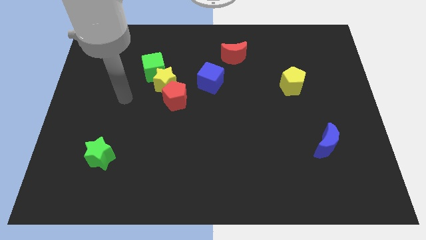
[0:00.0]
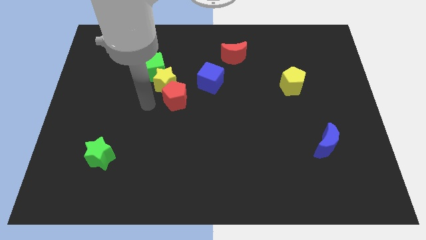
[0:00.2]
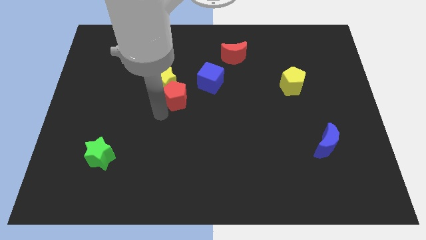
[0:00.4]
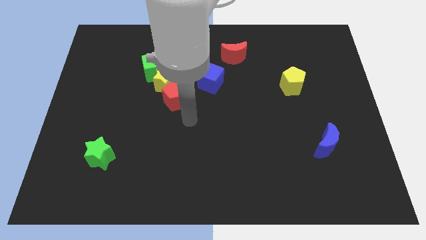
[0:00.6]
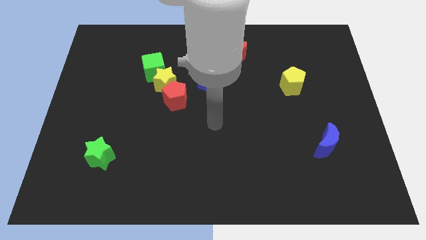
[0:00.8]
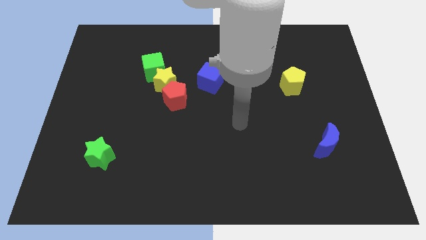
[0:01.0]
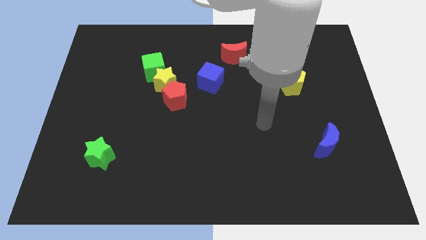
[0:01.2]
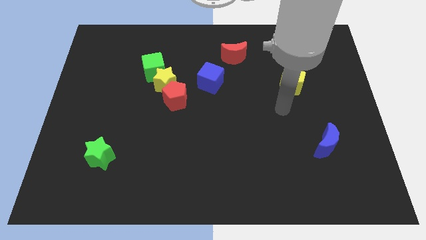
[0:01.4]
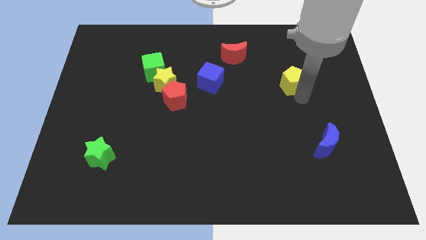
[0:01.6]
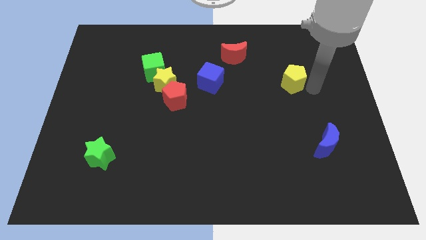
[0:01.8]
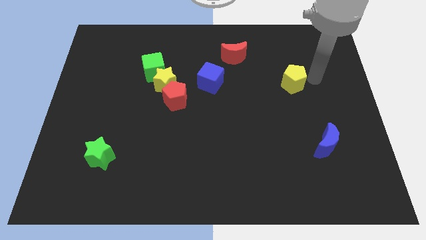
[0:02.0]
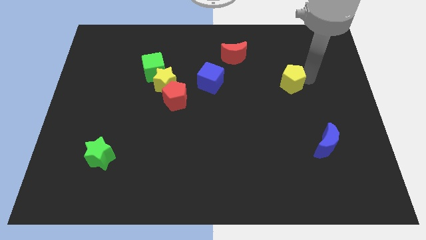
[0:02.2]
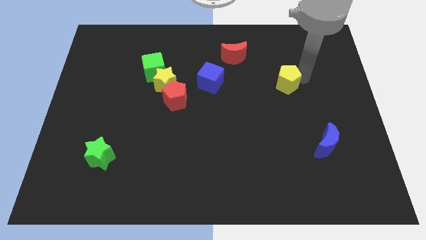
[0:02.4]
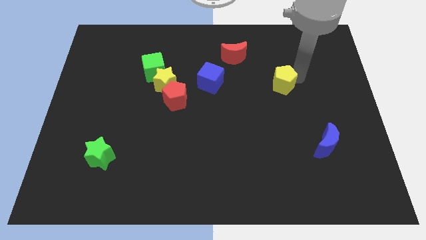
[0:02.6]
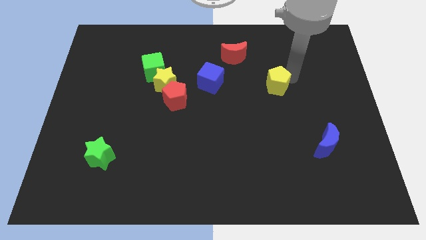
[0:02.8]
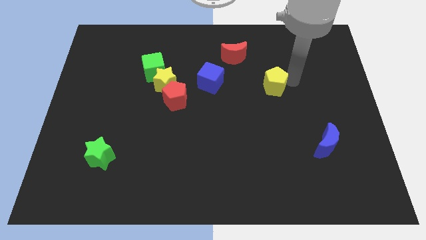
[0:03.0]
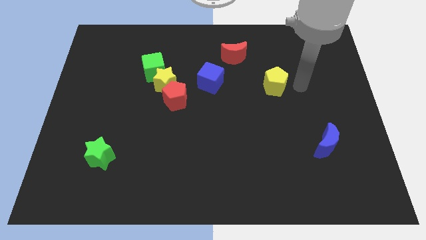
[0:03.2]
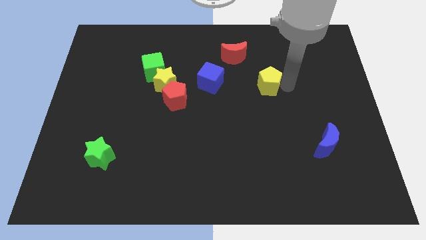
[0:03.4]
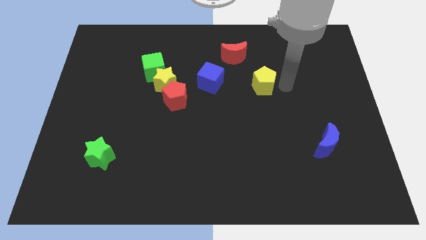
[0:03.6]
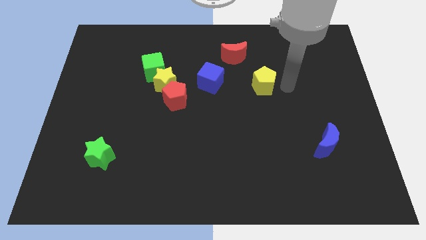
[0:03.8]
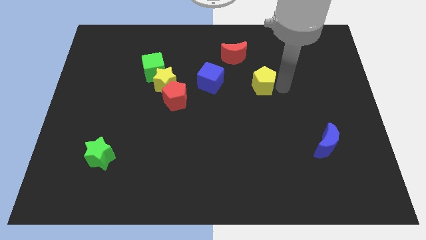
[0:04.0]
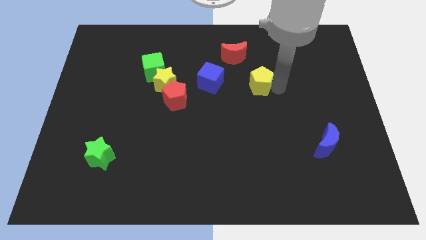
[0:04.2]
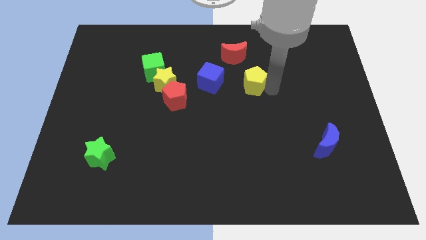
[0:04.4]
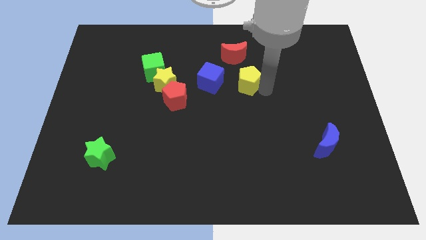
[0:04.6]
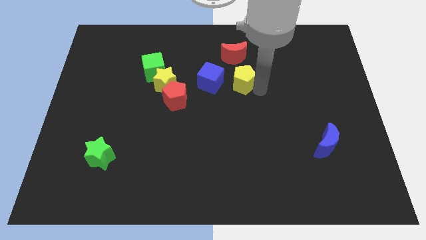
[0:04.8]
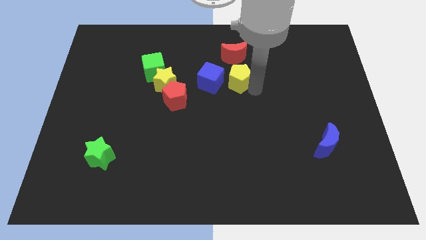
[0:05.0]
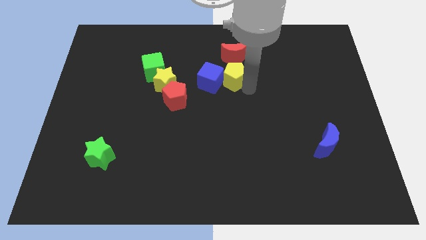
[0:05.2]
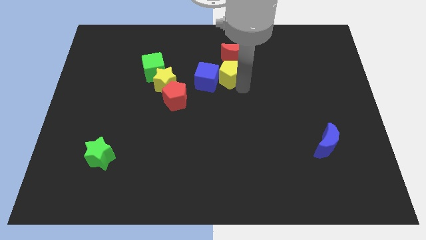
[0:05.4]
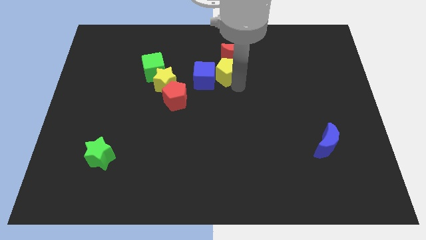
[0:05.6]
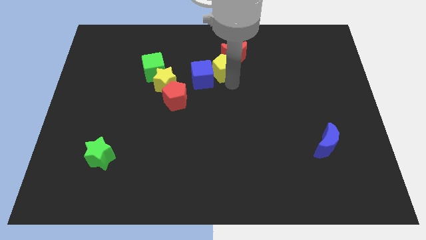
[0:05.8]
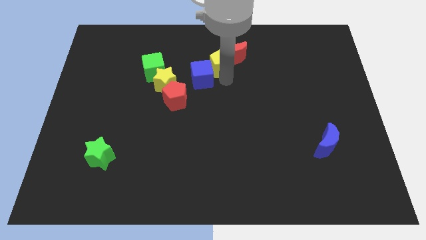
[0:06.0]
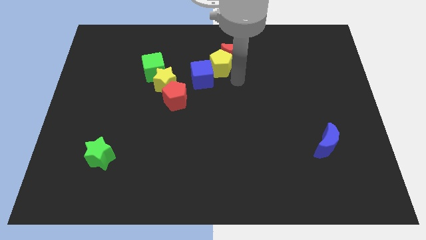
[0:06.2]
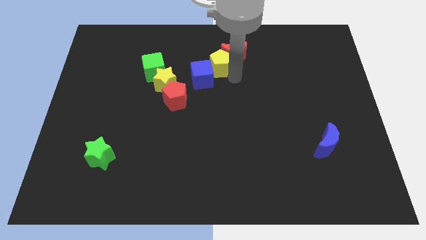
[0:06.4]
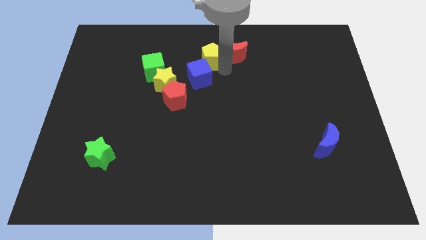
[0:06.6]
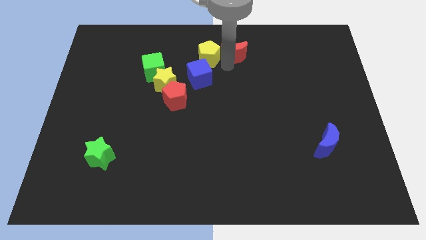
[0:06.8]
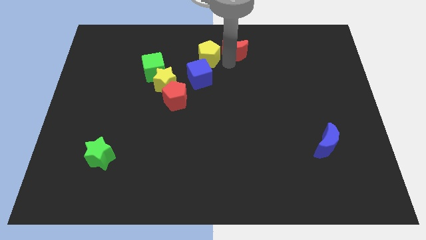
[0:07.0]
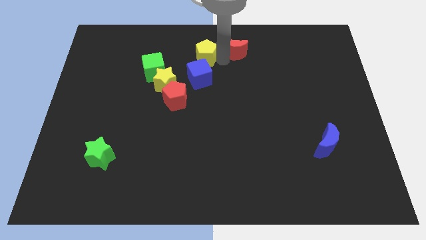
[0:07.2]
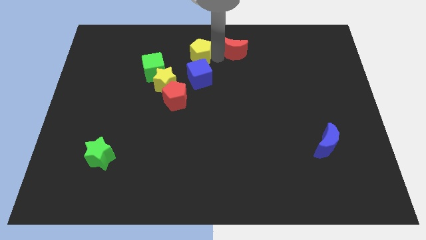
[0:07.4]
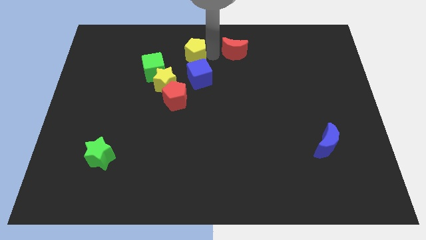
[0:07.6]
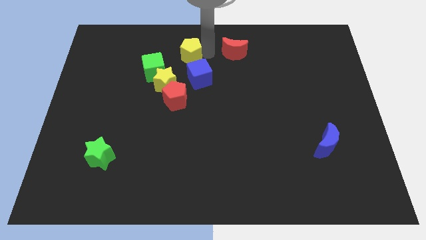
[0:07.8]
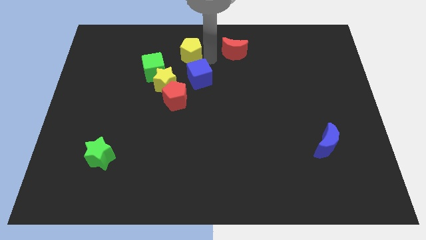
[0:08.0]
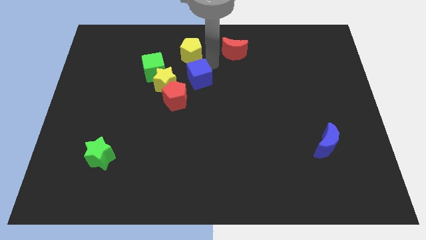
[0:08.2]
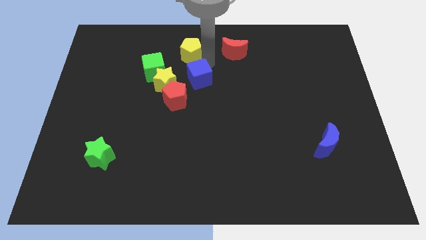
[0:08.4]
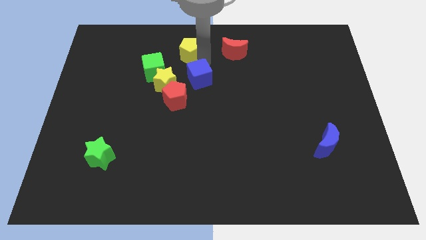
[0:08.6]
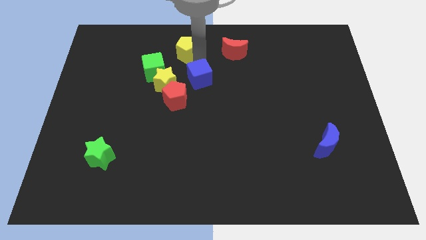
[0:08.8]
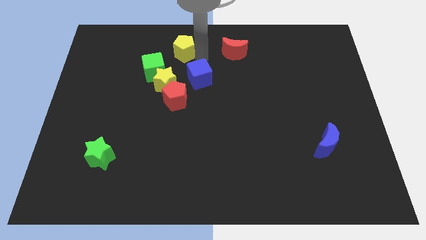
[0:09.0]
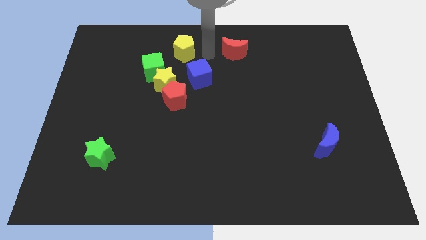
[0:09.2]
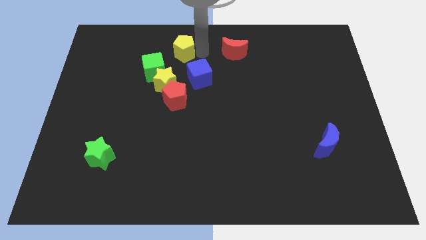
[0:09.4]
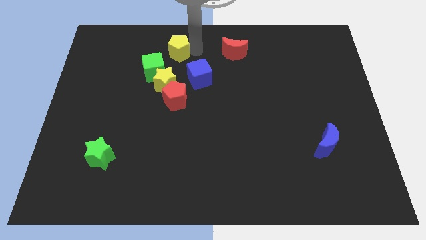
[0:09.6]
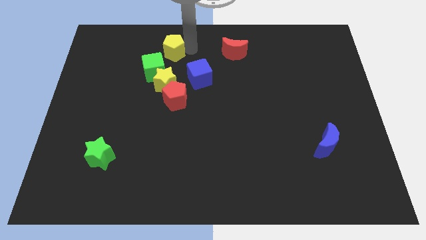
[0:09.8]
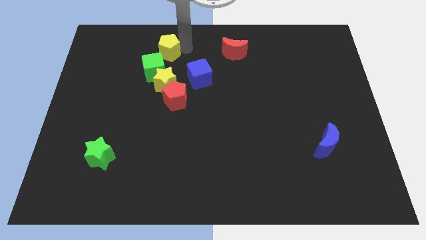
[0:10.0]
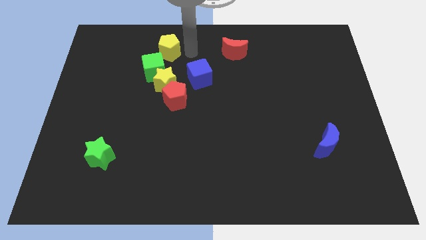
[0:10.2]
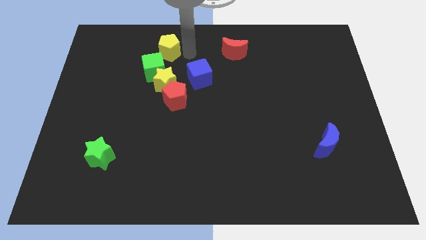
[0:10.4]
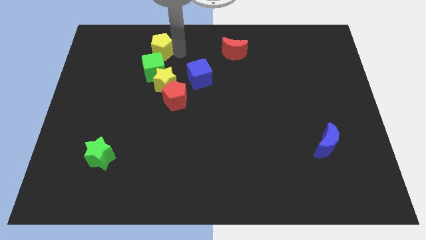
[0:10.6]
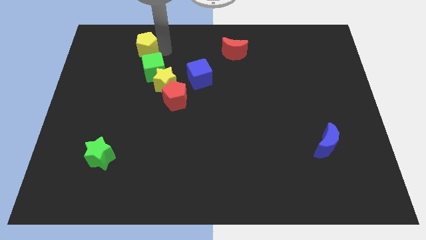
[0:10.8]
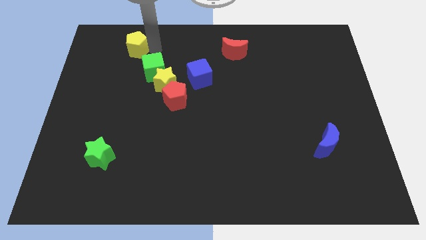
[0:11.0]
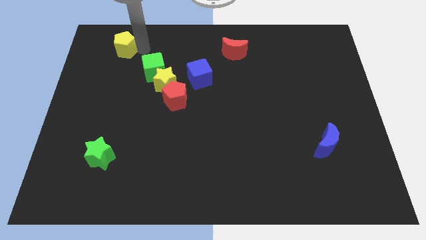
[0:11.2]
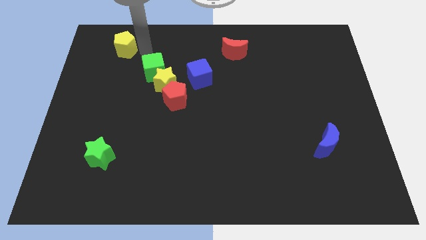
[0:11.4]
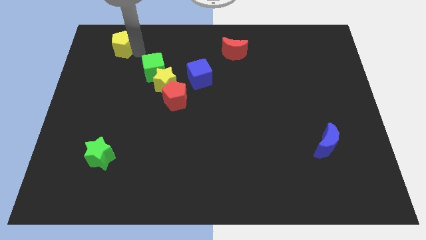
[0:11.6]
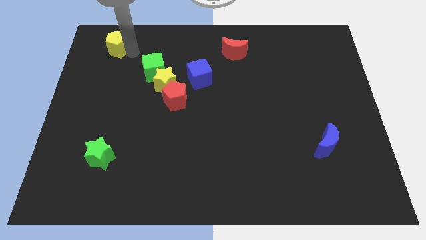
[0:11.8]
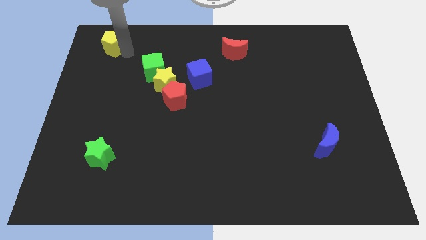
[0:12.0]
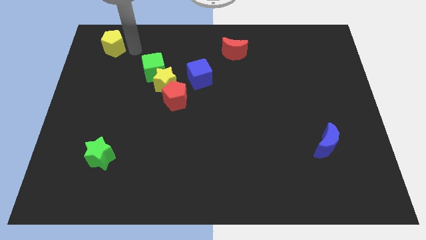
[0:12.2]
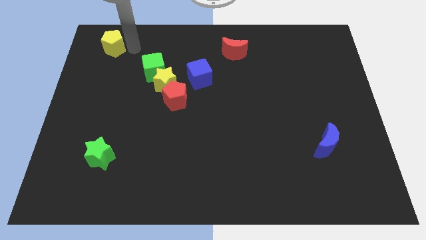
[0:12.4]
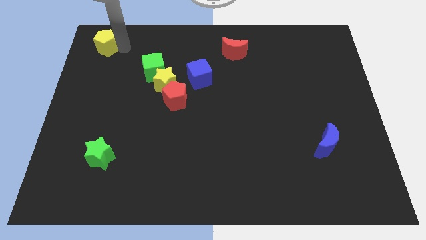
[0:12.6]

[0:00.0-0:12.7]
push the yellow pentagon to the top left corner
